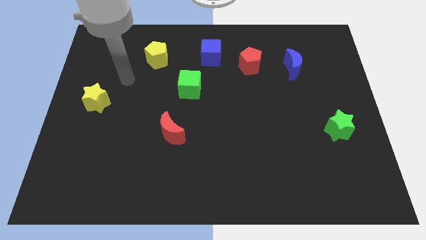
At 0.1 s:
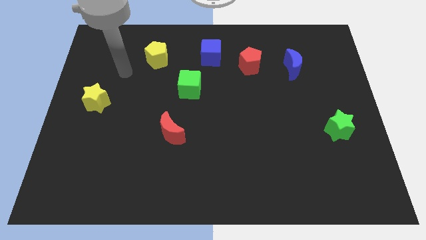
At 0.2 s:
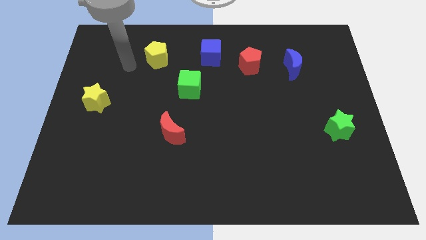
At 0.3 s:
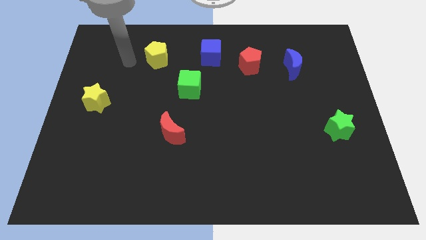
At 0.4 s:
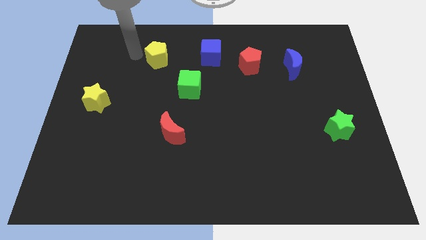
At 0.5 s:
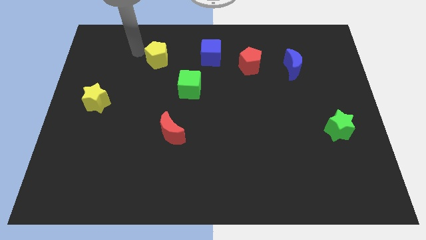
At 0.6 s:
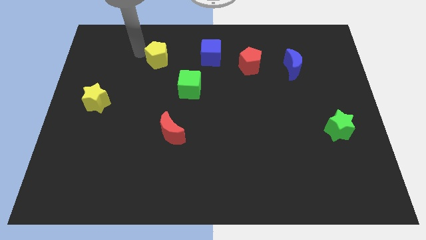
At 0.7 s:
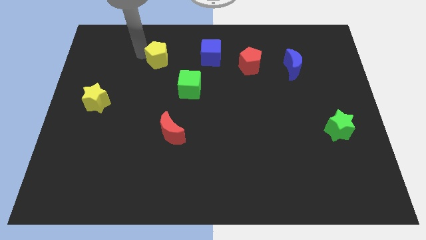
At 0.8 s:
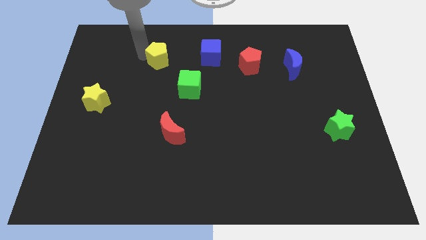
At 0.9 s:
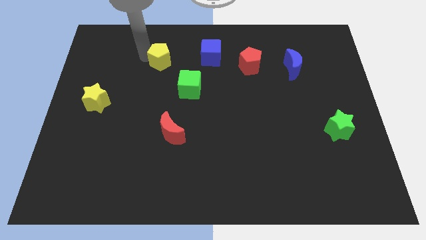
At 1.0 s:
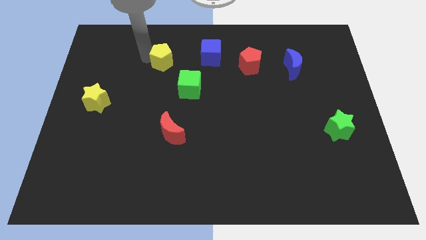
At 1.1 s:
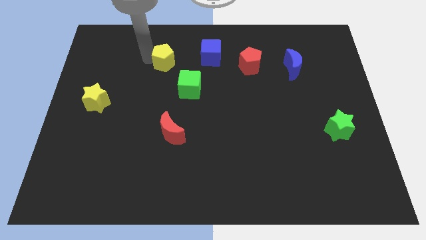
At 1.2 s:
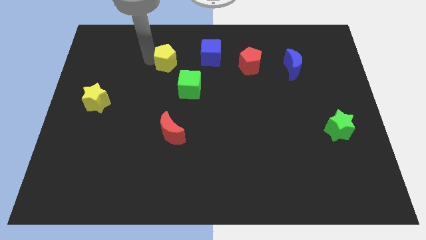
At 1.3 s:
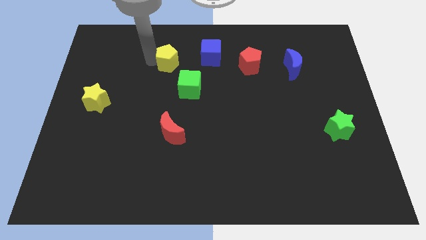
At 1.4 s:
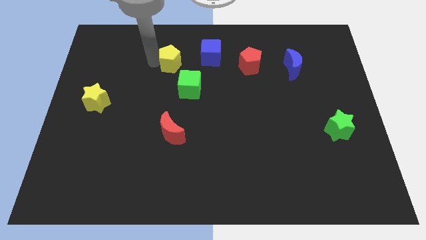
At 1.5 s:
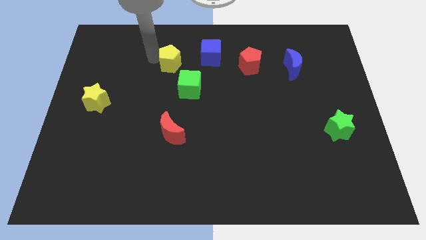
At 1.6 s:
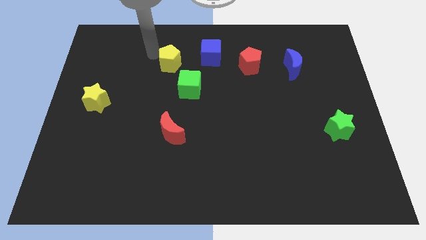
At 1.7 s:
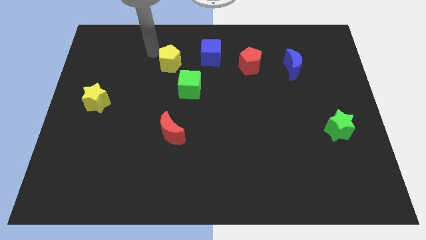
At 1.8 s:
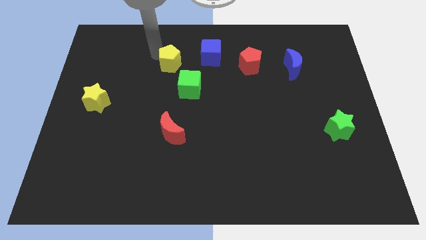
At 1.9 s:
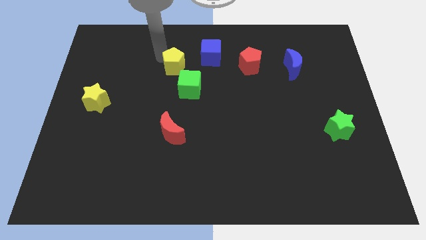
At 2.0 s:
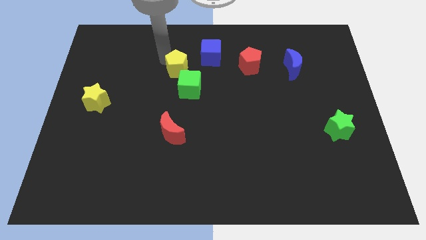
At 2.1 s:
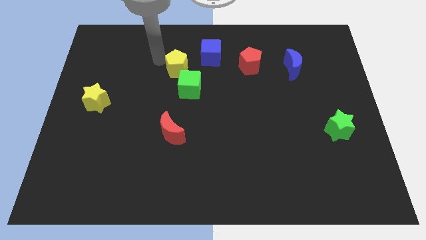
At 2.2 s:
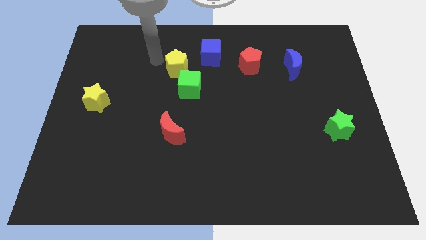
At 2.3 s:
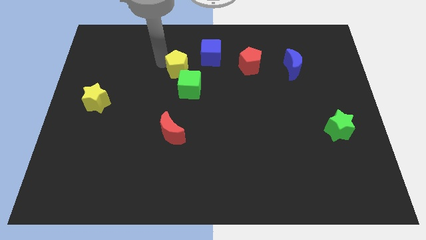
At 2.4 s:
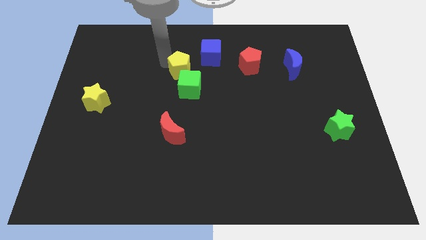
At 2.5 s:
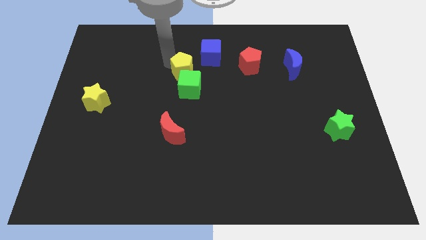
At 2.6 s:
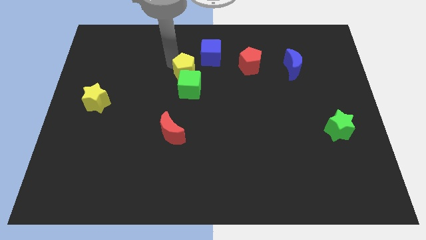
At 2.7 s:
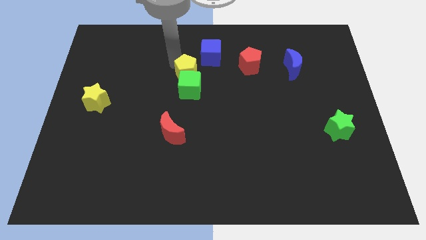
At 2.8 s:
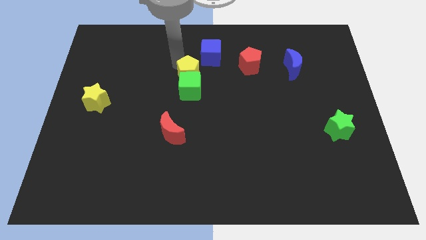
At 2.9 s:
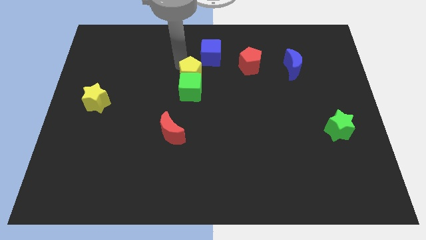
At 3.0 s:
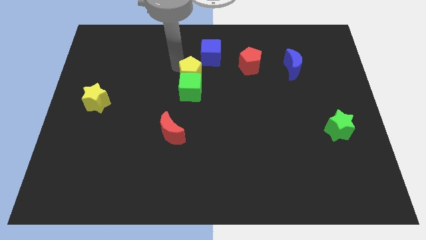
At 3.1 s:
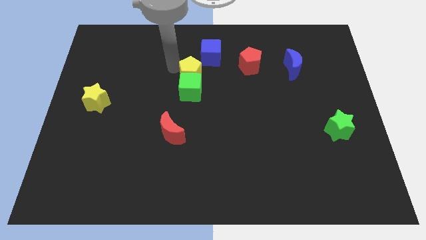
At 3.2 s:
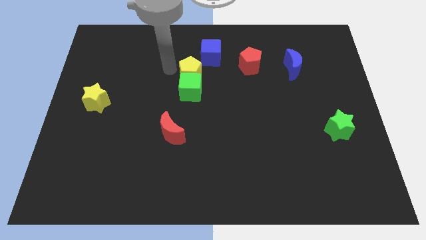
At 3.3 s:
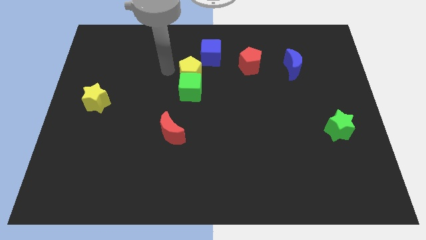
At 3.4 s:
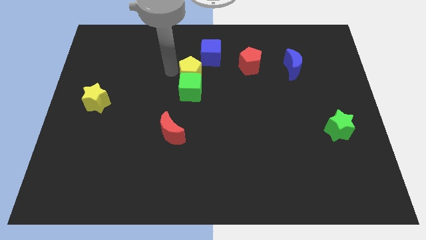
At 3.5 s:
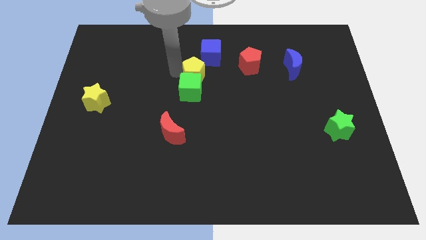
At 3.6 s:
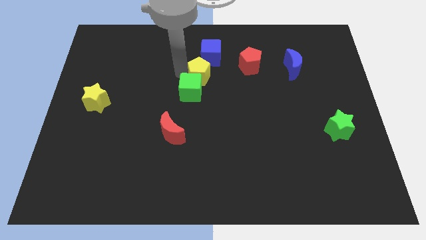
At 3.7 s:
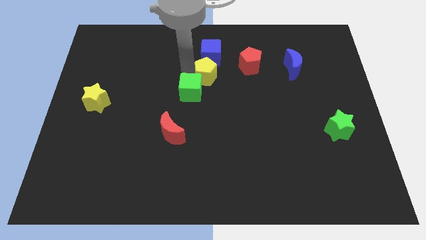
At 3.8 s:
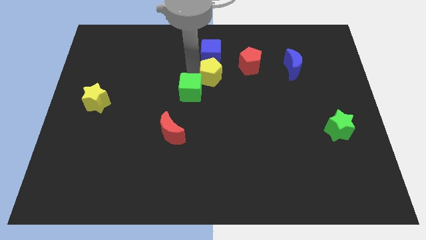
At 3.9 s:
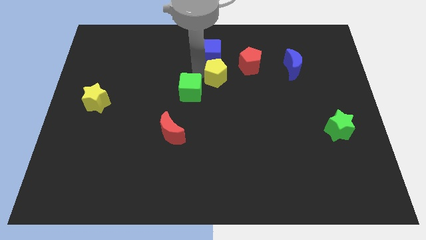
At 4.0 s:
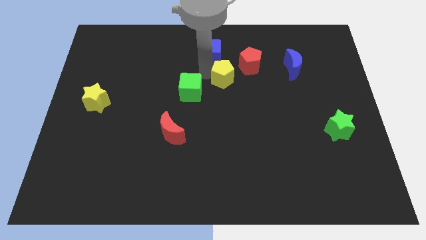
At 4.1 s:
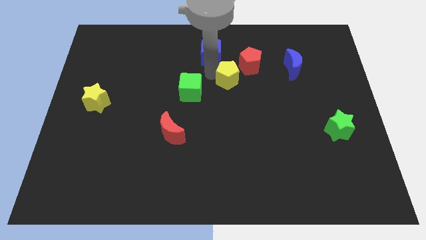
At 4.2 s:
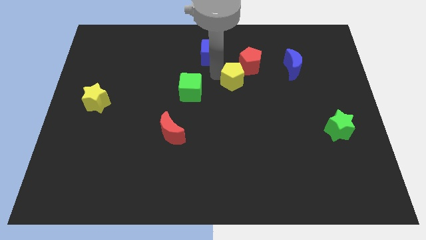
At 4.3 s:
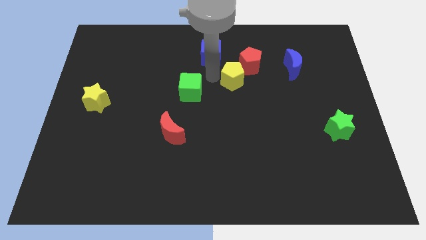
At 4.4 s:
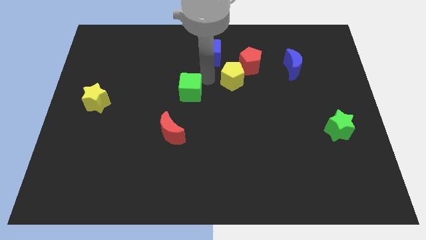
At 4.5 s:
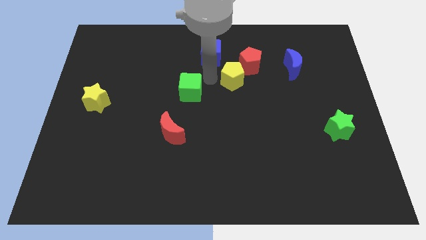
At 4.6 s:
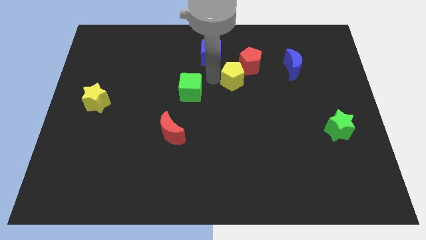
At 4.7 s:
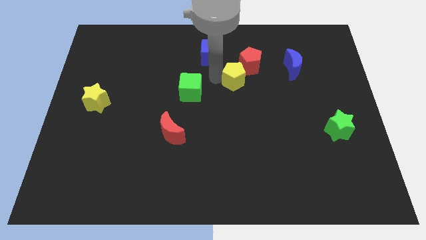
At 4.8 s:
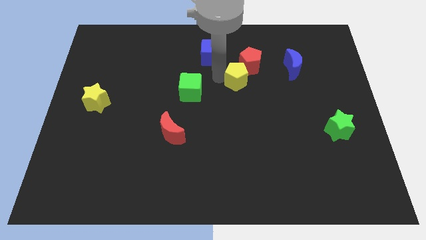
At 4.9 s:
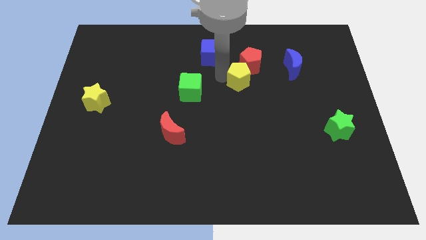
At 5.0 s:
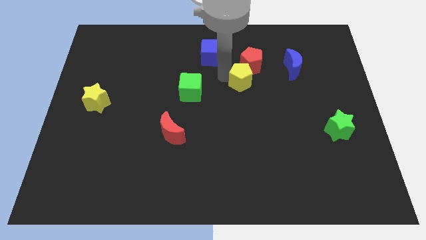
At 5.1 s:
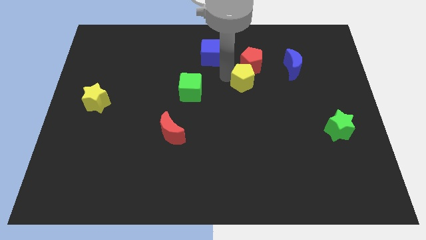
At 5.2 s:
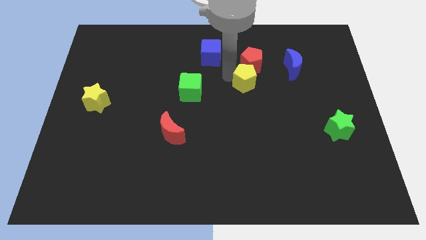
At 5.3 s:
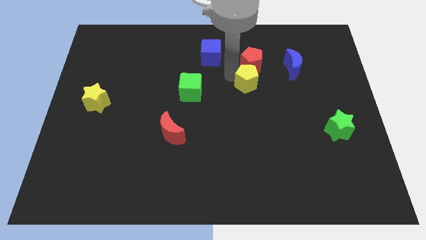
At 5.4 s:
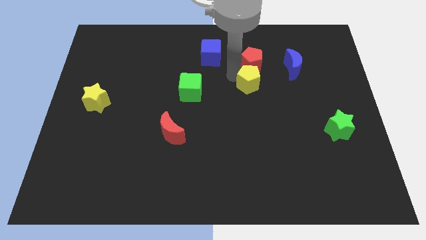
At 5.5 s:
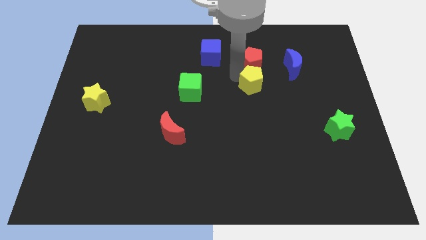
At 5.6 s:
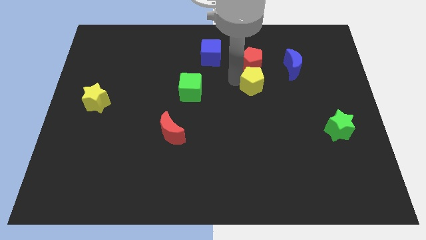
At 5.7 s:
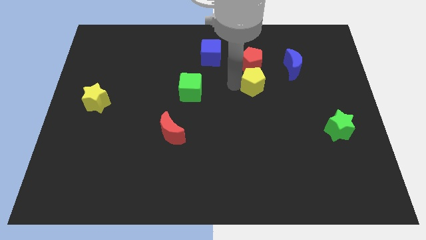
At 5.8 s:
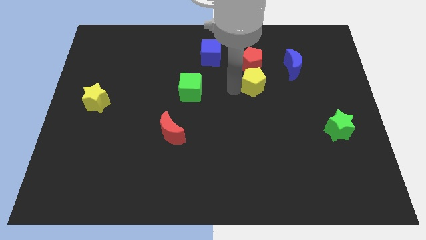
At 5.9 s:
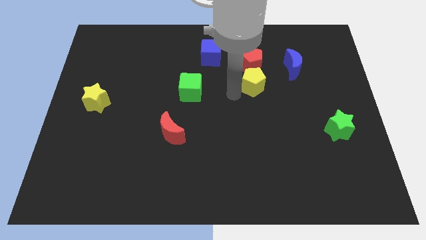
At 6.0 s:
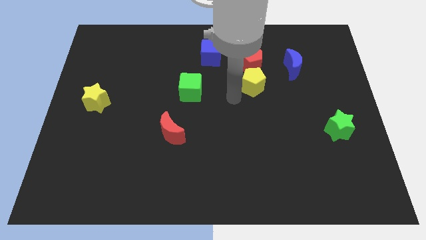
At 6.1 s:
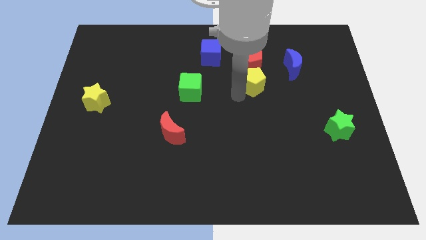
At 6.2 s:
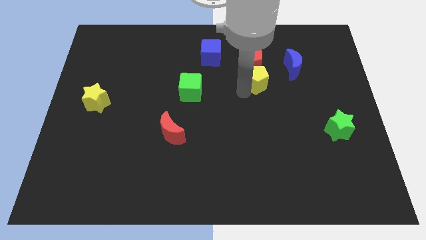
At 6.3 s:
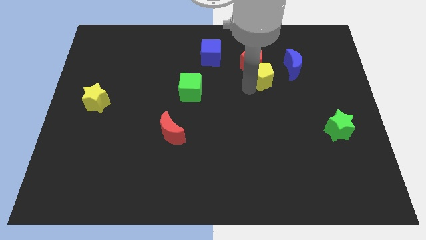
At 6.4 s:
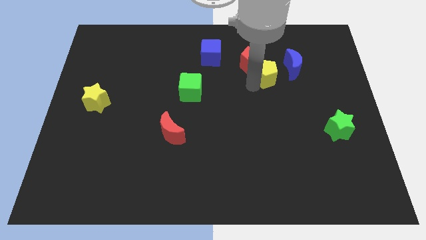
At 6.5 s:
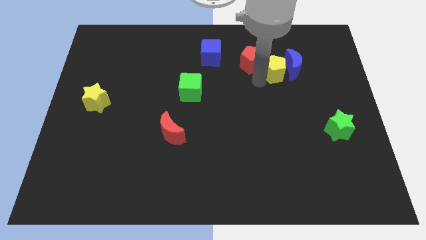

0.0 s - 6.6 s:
push the yellow pentagon to the blue moon
